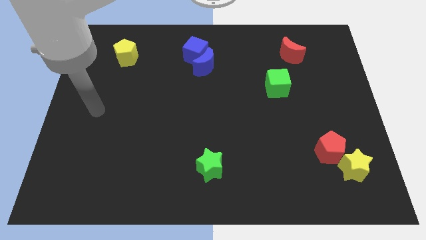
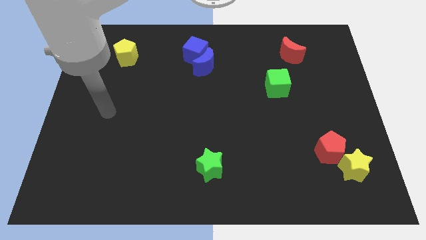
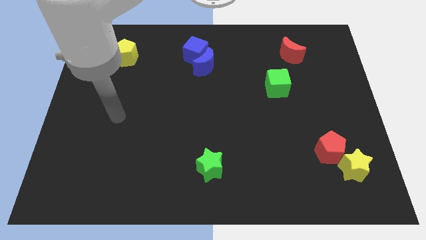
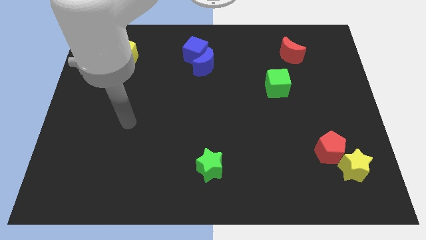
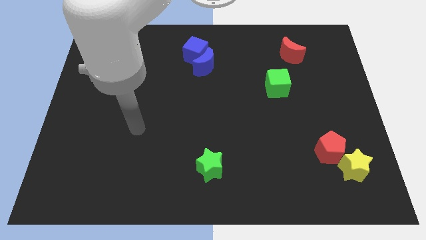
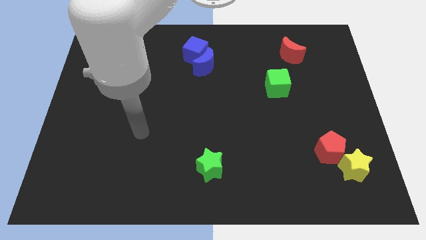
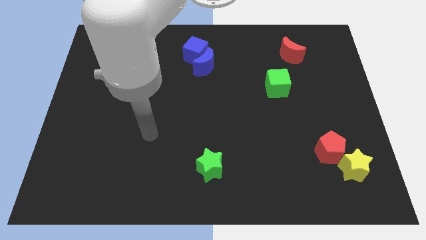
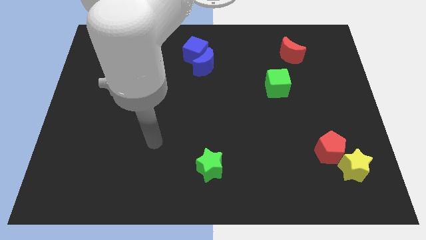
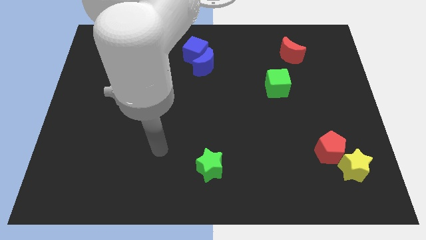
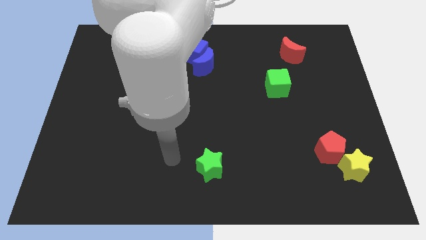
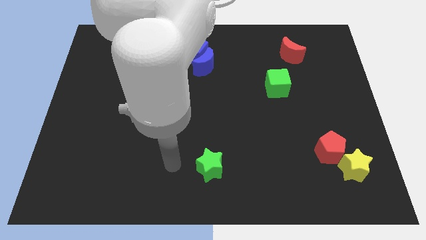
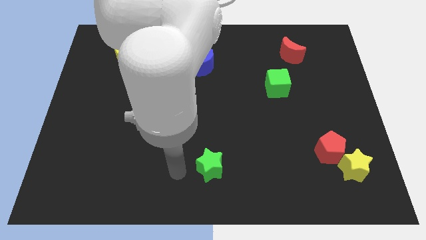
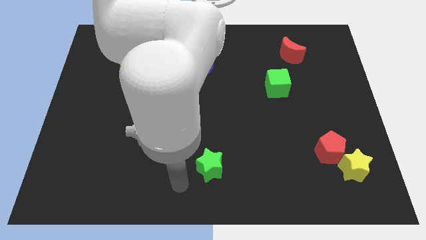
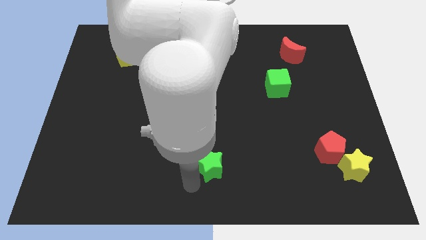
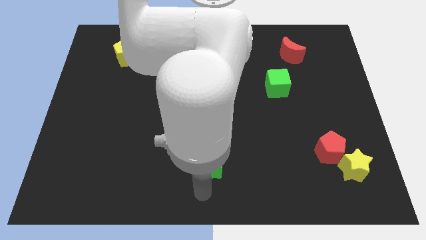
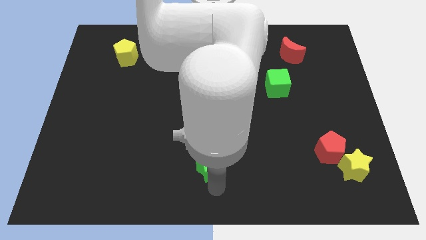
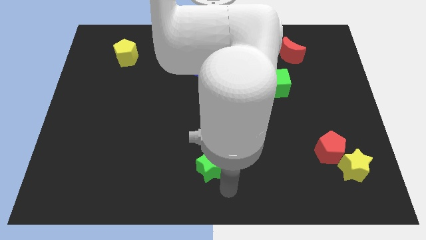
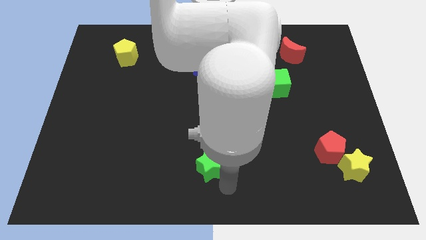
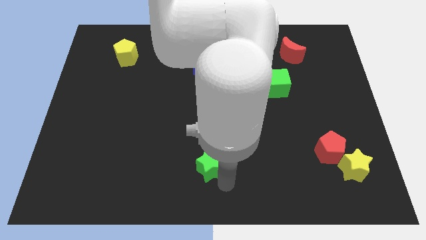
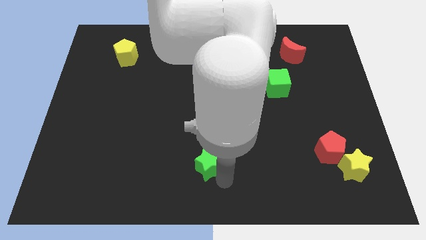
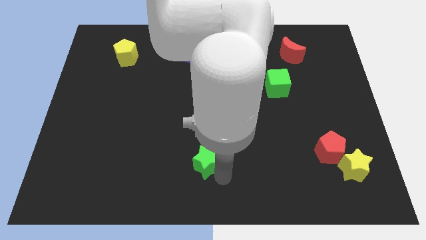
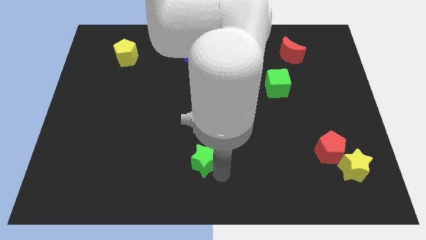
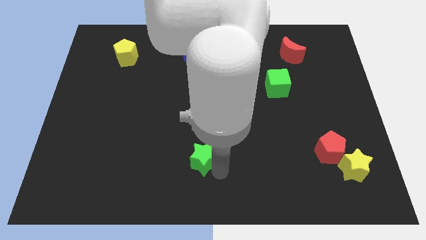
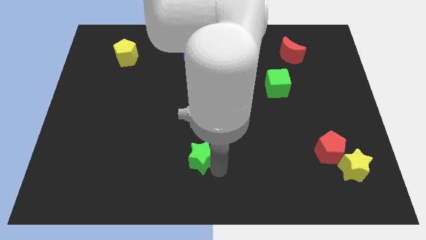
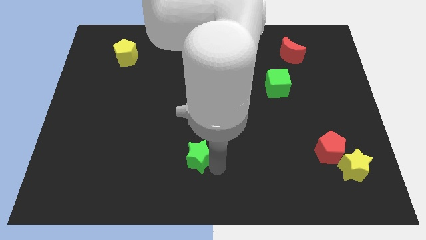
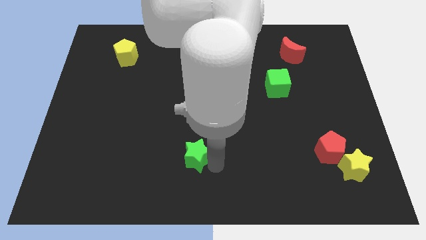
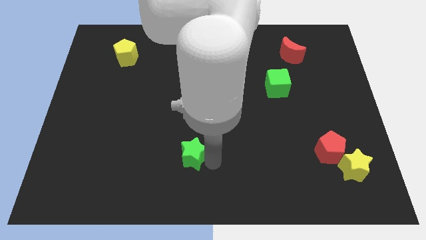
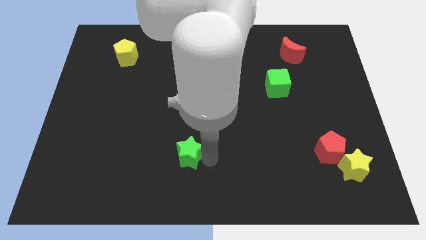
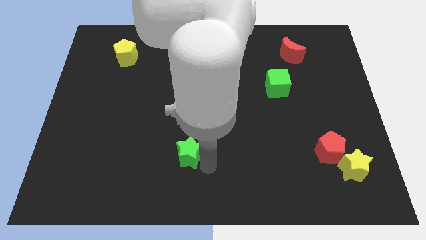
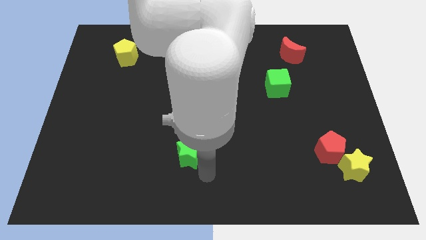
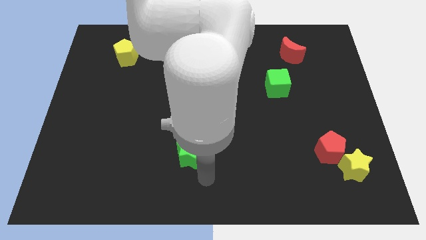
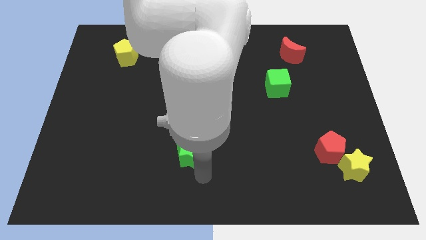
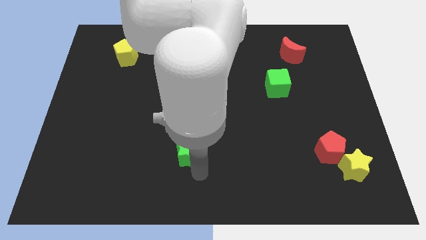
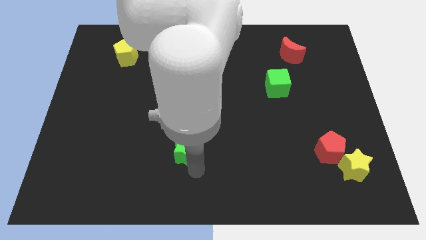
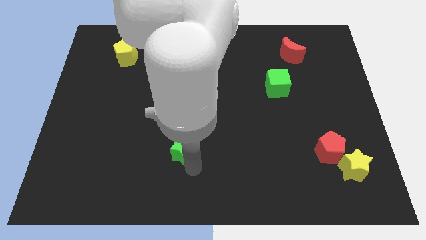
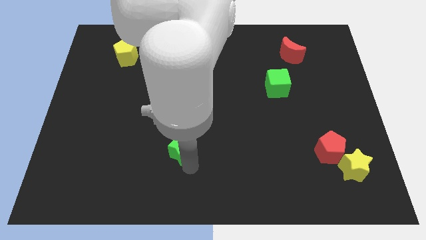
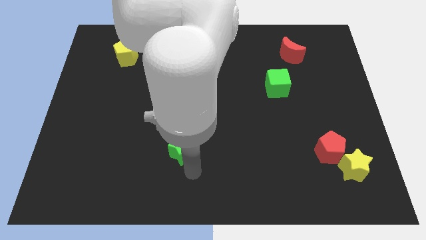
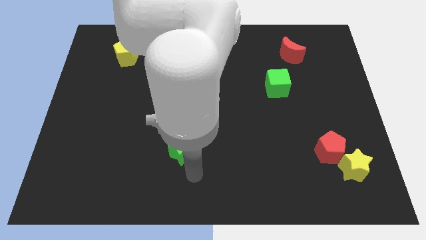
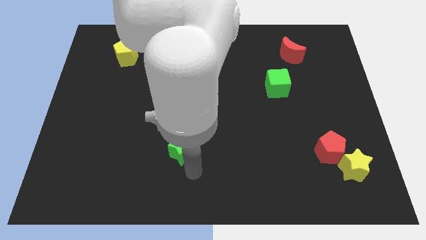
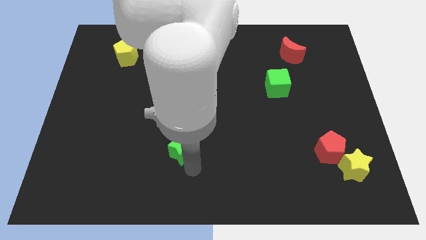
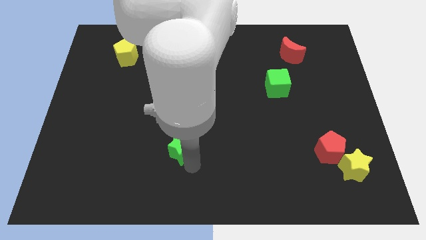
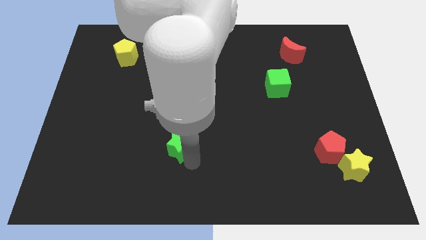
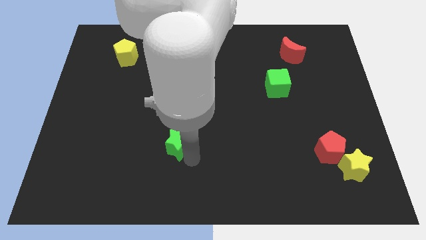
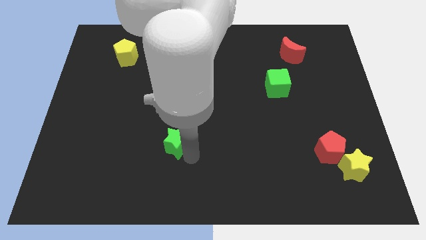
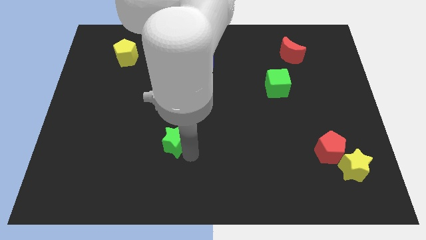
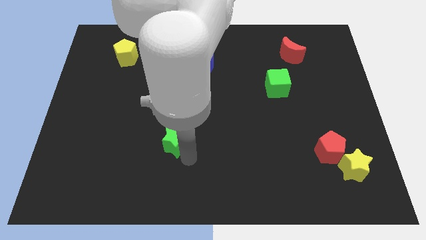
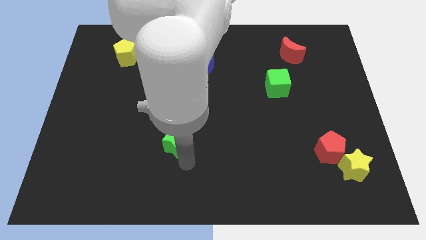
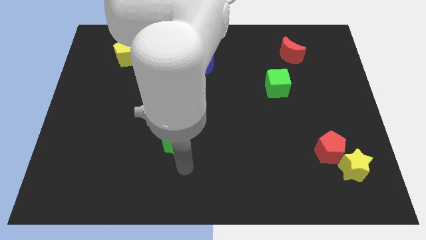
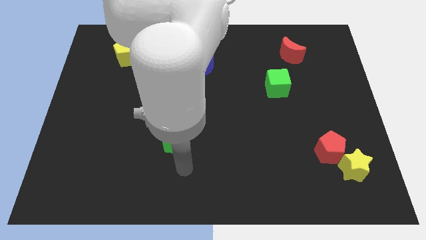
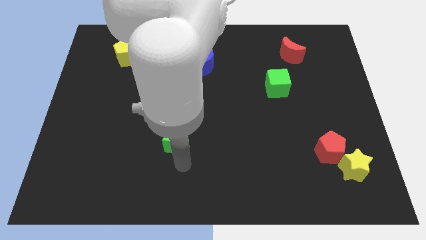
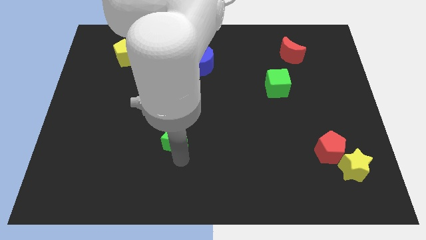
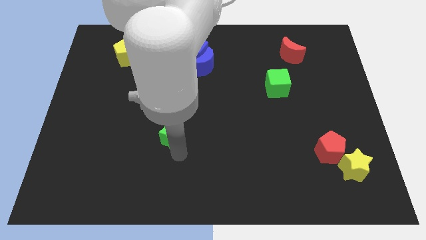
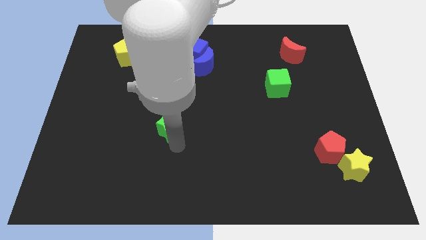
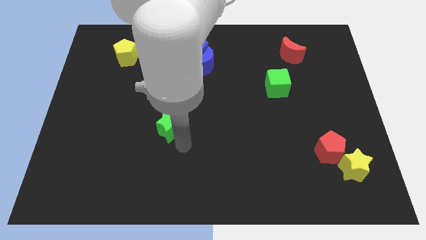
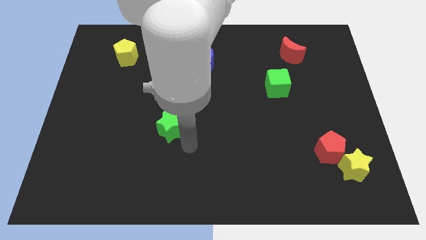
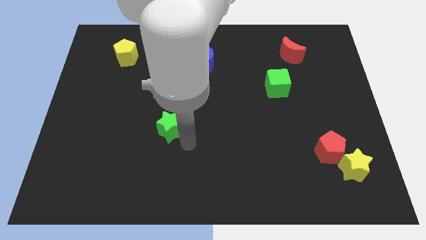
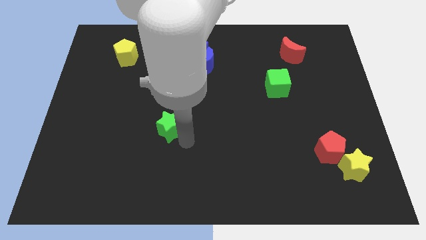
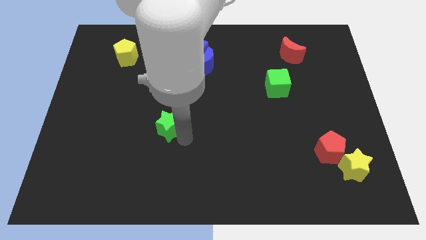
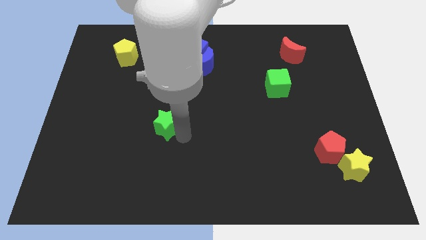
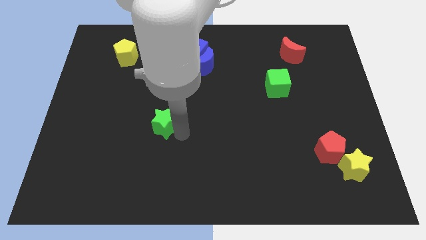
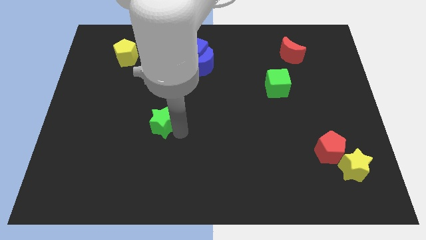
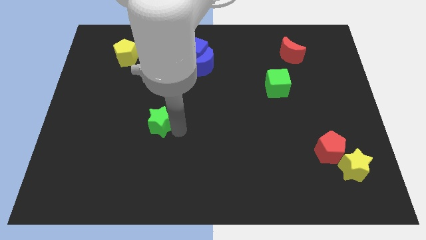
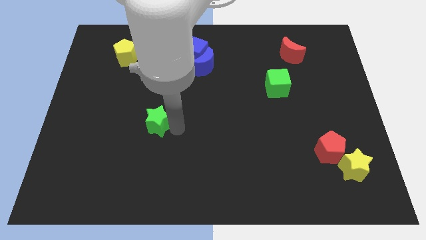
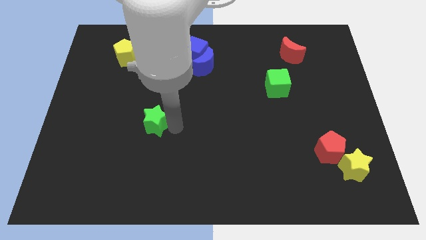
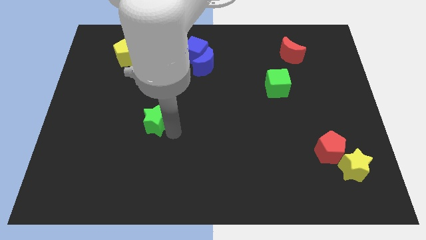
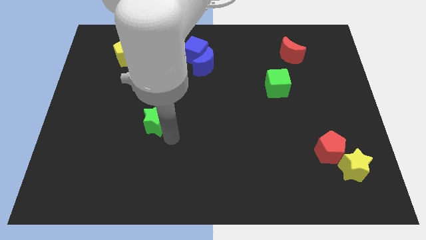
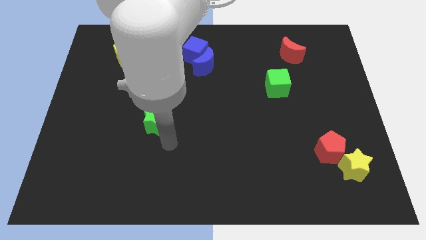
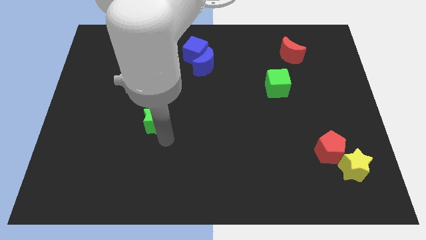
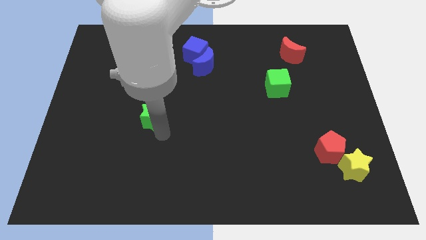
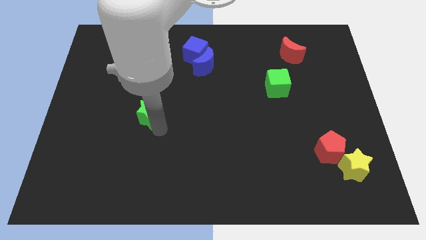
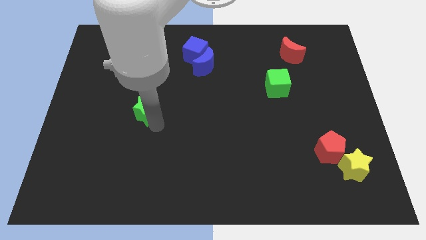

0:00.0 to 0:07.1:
move the green star upwards and left diagonally

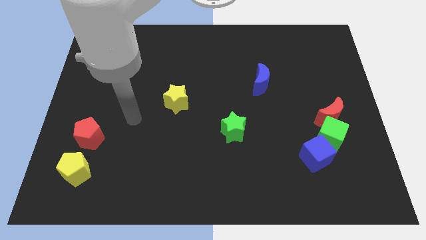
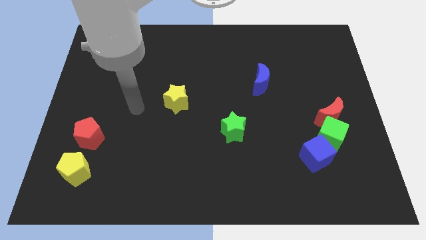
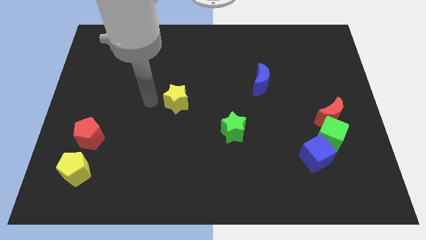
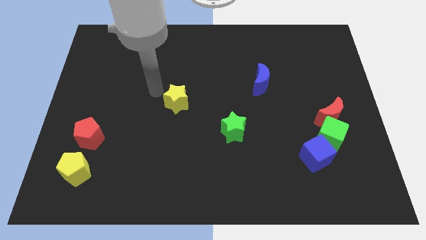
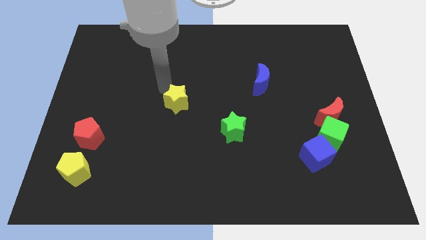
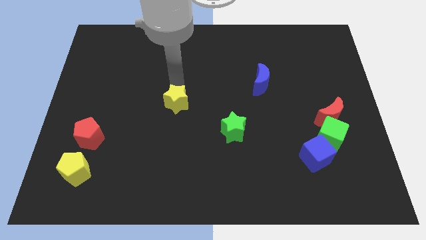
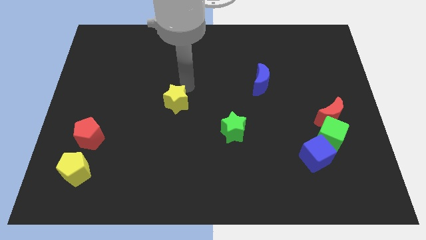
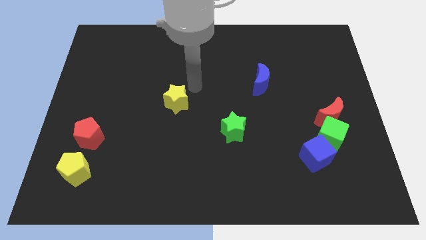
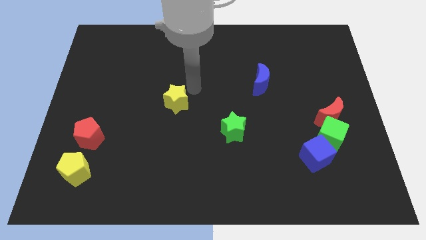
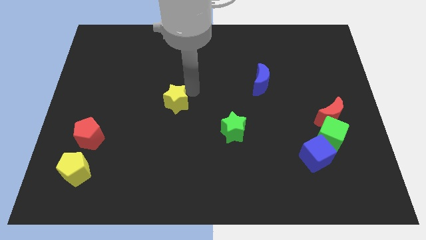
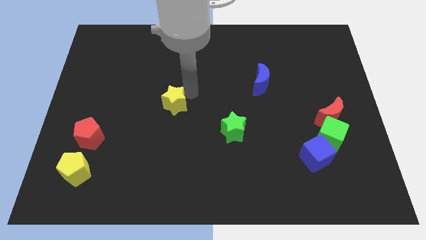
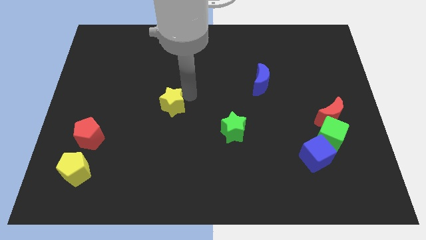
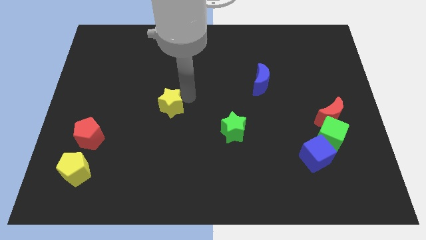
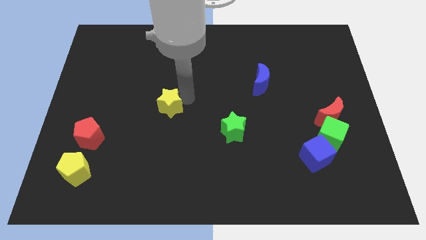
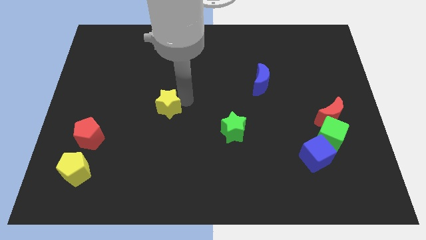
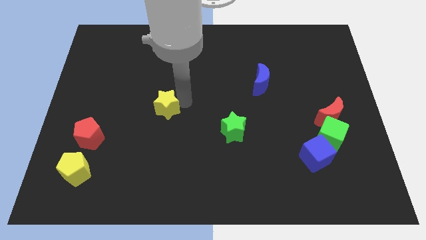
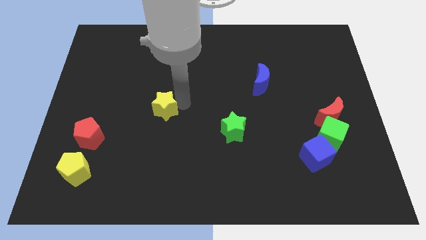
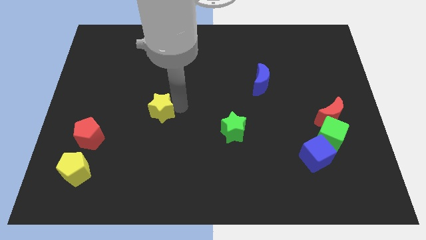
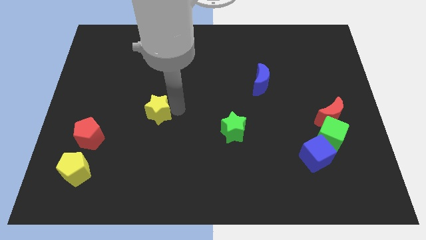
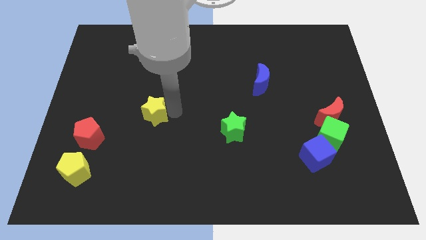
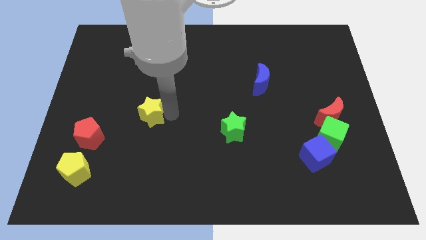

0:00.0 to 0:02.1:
slightly push the yellow star diagonally down and to the left
